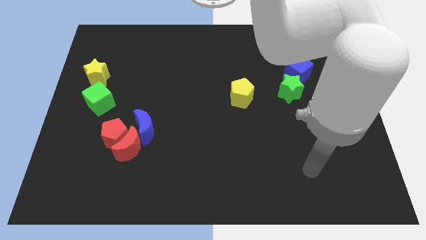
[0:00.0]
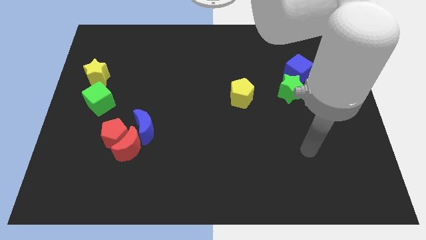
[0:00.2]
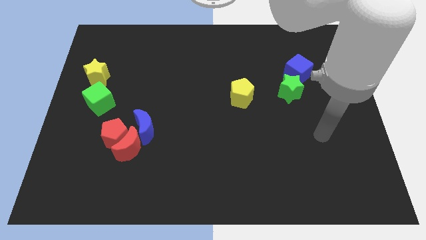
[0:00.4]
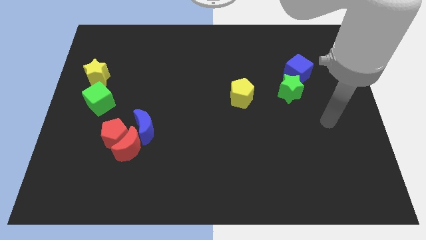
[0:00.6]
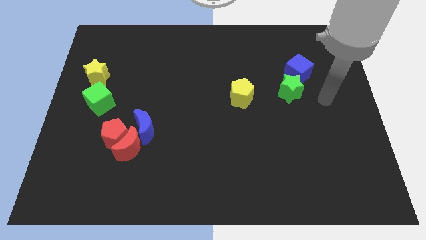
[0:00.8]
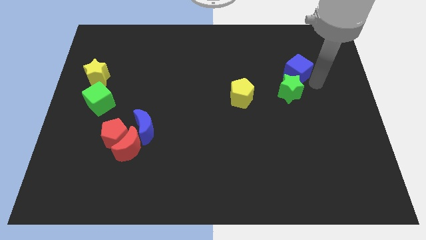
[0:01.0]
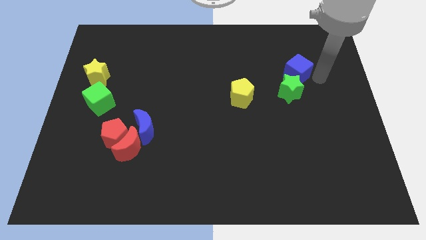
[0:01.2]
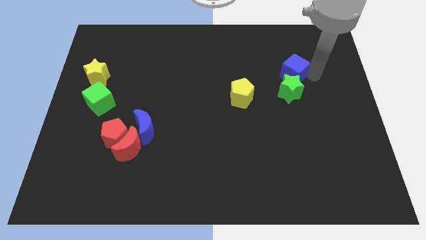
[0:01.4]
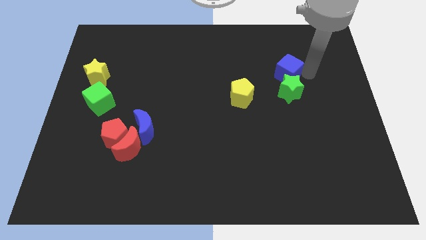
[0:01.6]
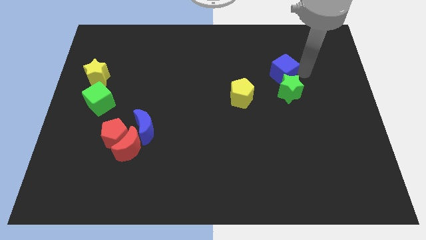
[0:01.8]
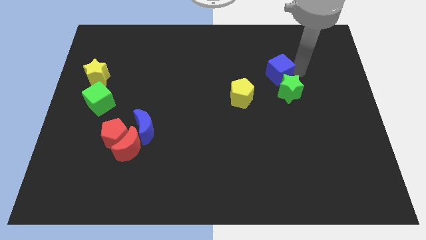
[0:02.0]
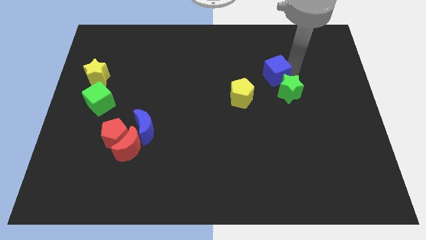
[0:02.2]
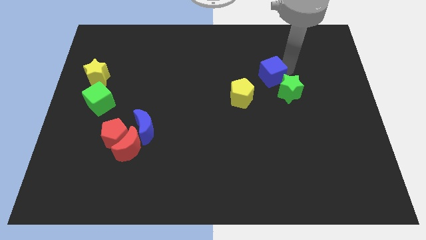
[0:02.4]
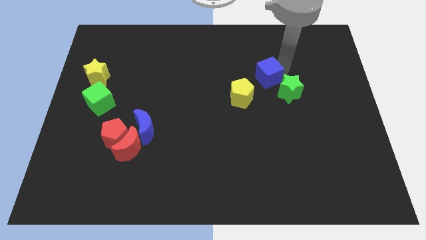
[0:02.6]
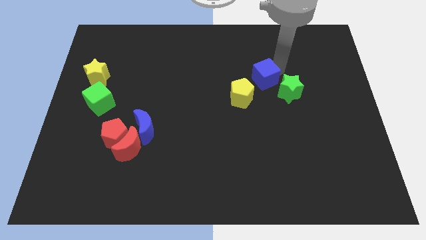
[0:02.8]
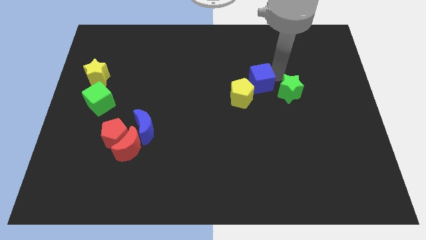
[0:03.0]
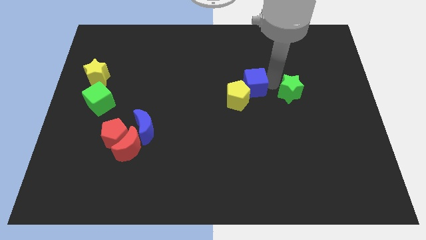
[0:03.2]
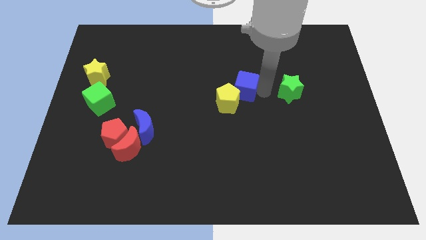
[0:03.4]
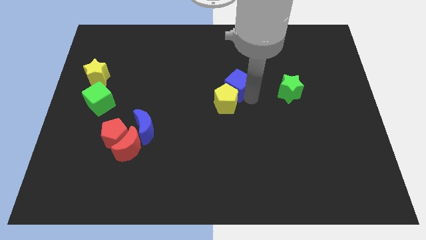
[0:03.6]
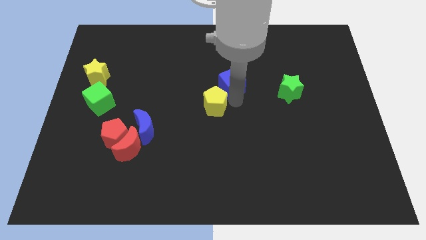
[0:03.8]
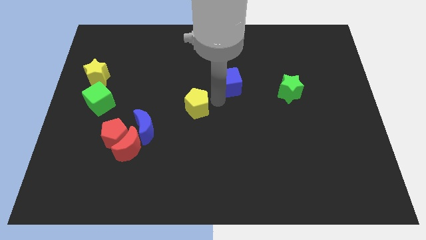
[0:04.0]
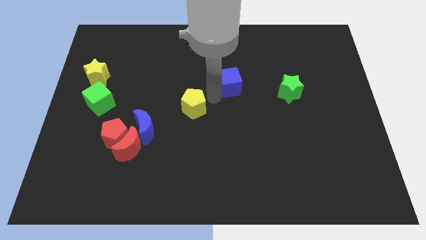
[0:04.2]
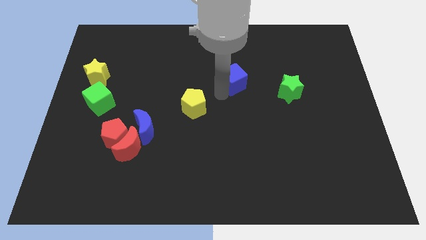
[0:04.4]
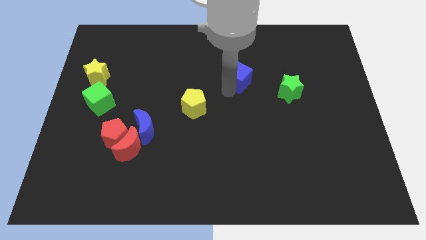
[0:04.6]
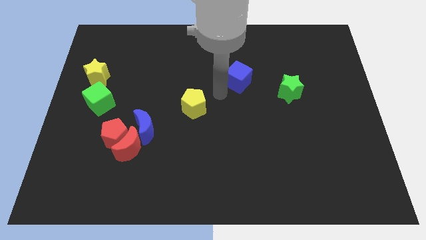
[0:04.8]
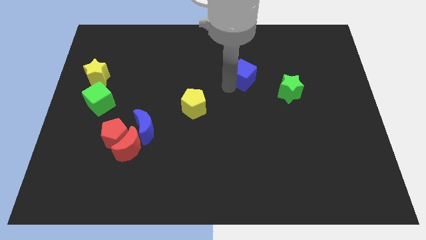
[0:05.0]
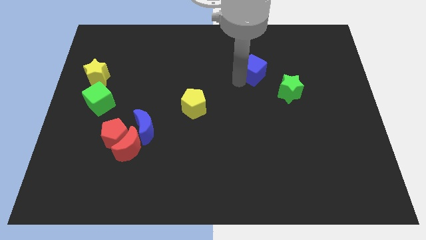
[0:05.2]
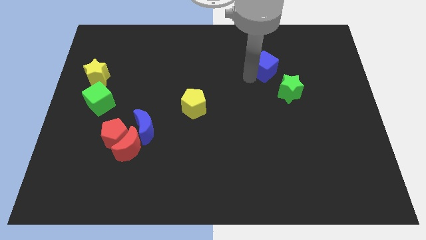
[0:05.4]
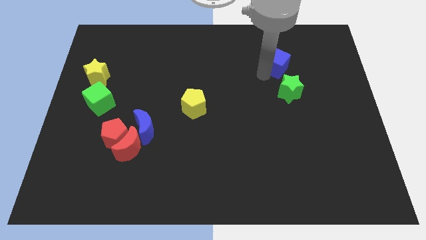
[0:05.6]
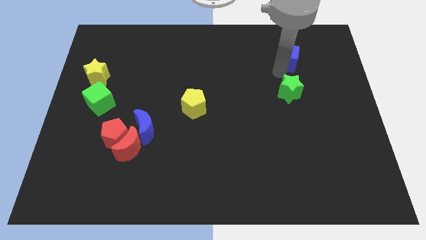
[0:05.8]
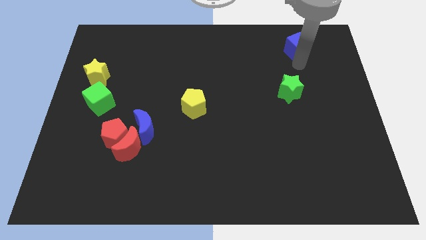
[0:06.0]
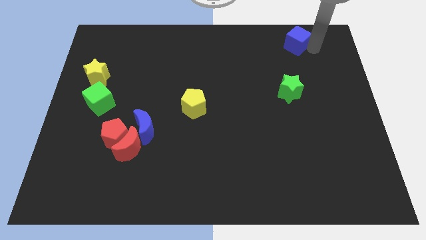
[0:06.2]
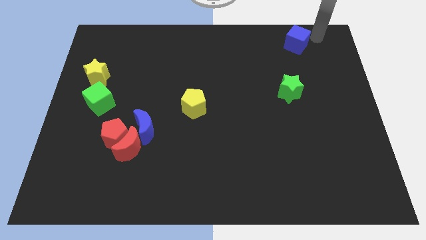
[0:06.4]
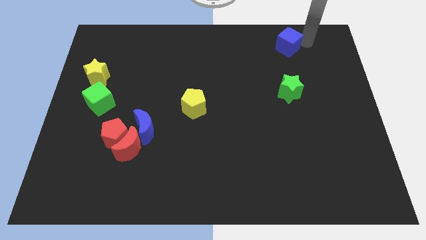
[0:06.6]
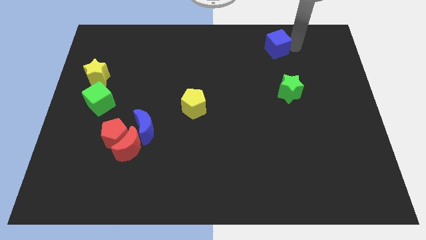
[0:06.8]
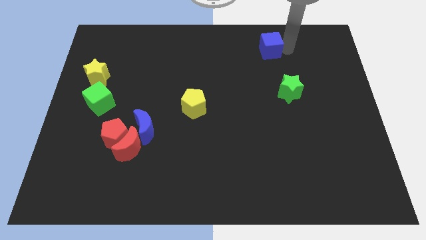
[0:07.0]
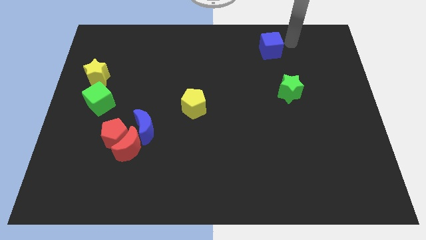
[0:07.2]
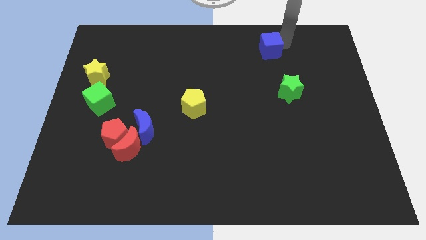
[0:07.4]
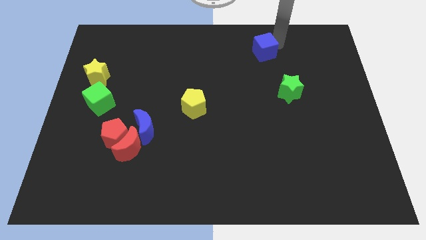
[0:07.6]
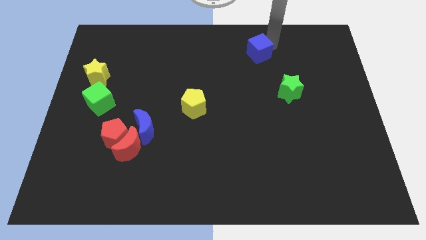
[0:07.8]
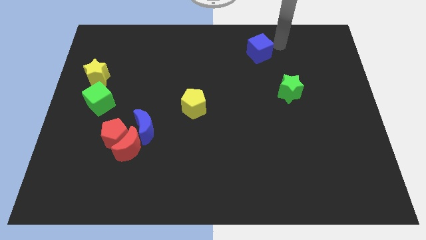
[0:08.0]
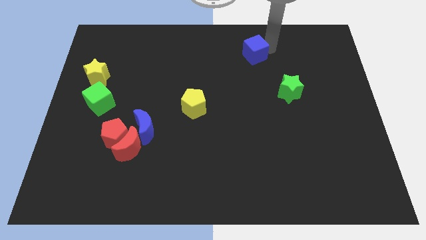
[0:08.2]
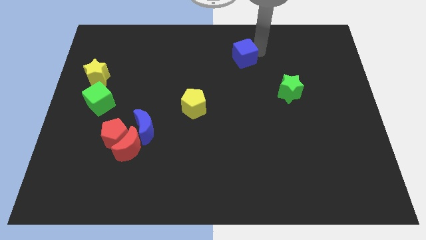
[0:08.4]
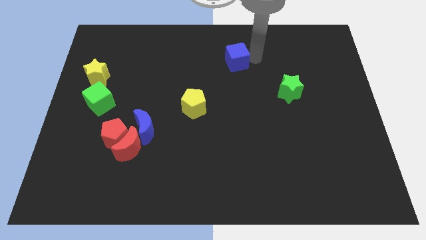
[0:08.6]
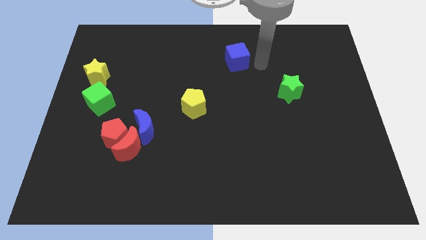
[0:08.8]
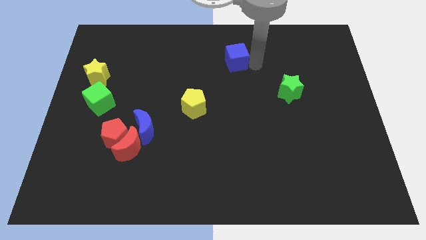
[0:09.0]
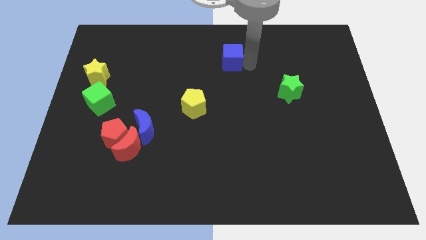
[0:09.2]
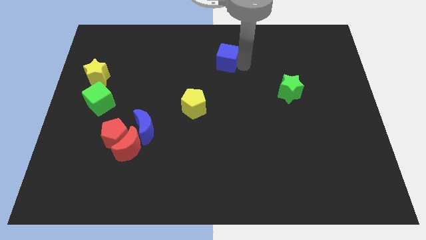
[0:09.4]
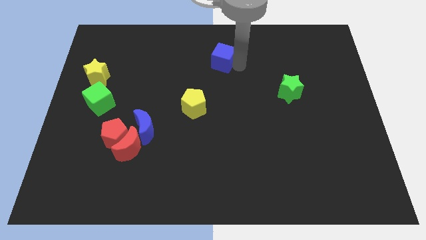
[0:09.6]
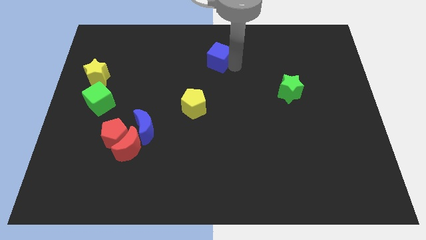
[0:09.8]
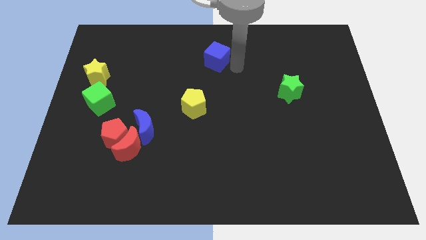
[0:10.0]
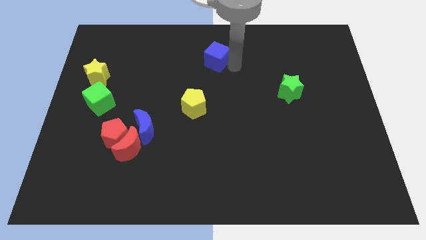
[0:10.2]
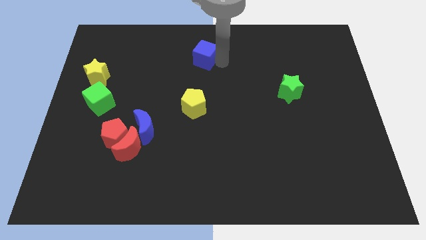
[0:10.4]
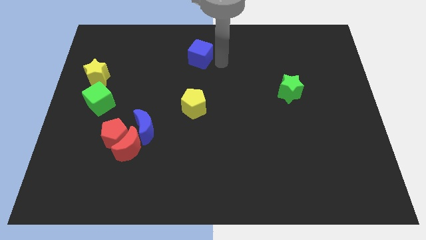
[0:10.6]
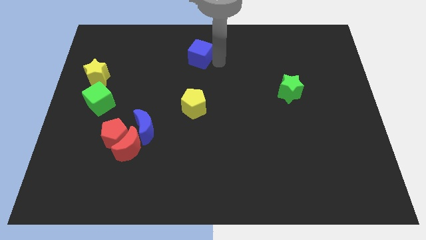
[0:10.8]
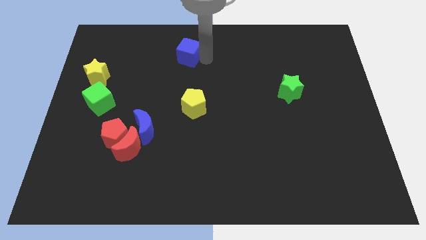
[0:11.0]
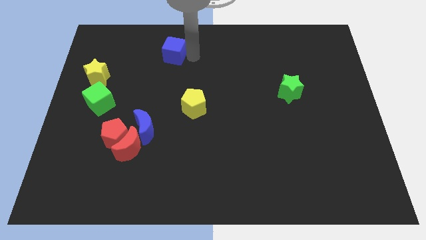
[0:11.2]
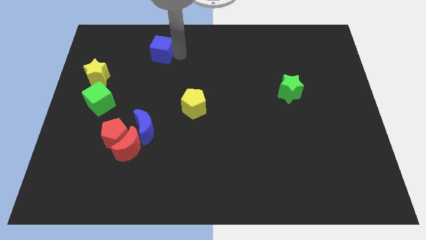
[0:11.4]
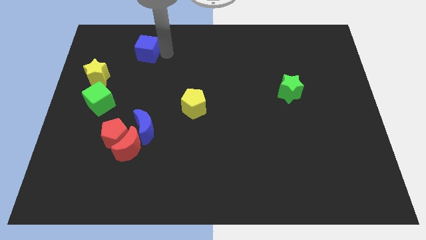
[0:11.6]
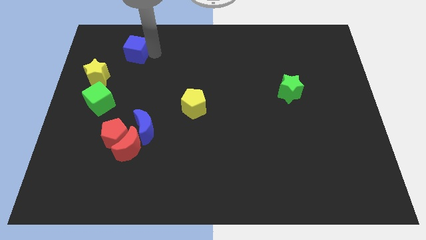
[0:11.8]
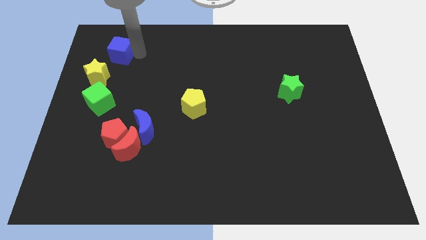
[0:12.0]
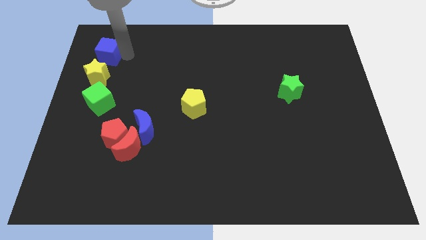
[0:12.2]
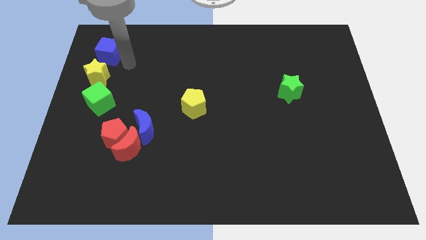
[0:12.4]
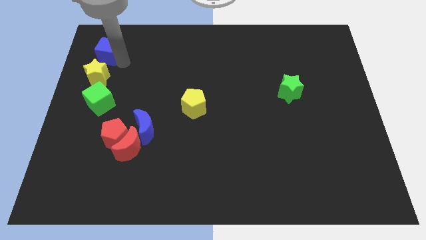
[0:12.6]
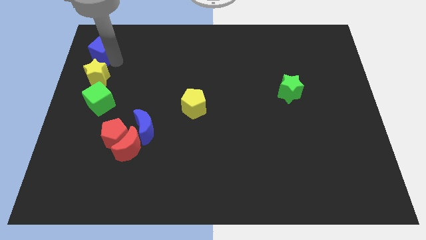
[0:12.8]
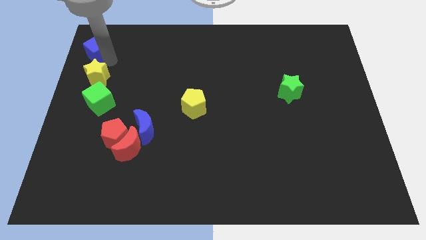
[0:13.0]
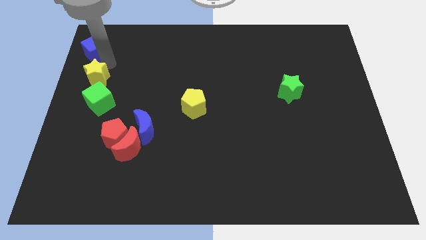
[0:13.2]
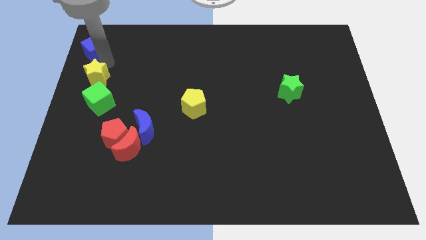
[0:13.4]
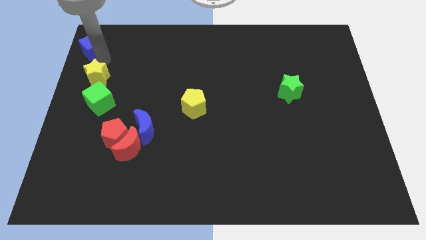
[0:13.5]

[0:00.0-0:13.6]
move the blue cube to the top left of the board
